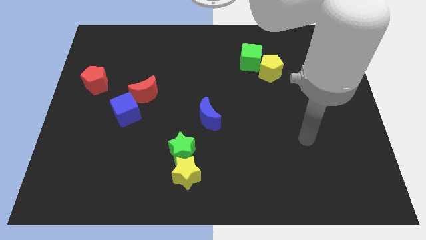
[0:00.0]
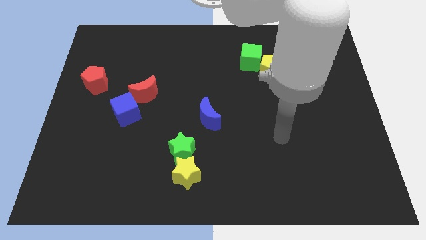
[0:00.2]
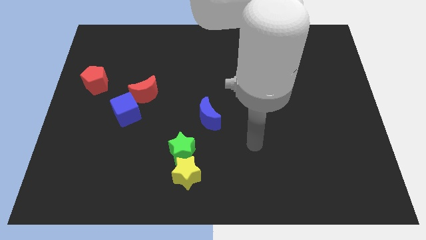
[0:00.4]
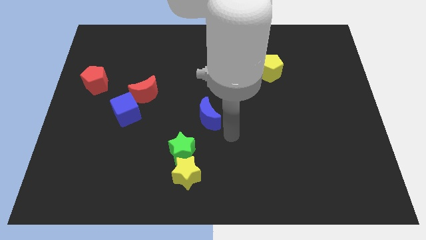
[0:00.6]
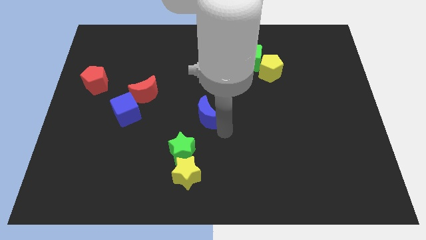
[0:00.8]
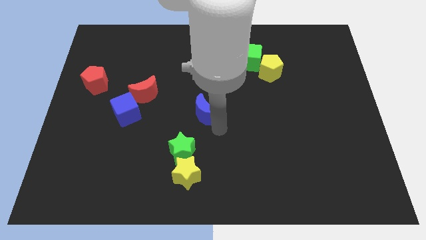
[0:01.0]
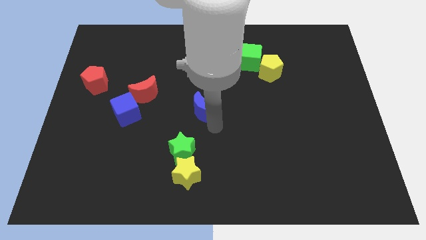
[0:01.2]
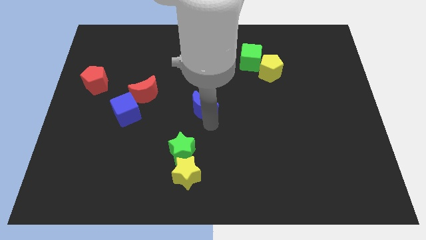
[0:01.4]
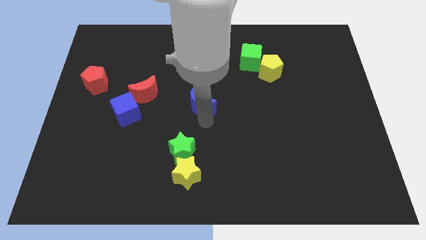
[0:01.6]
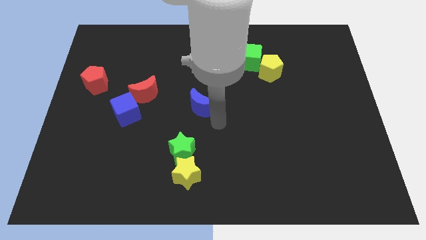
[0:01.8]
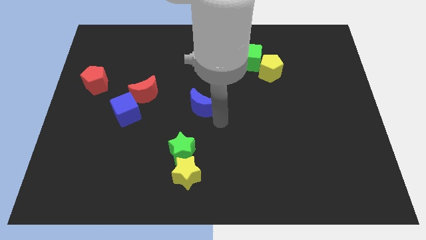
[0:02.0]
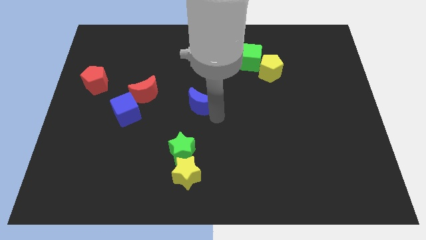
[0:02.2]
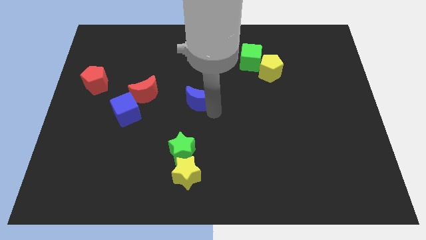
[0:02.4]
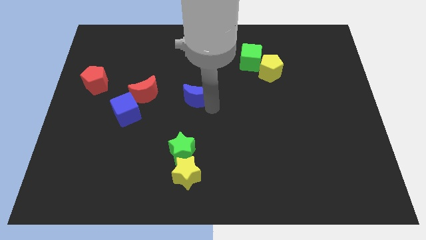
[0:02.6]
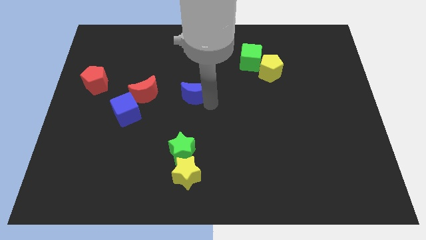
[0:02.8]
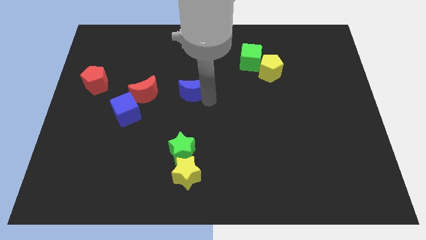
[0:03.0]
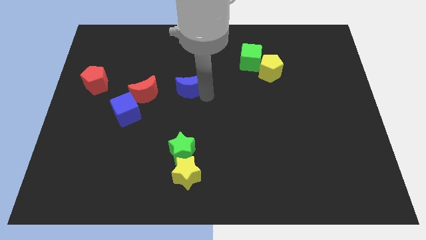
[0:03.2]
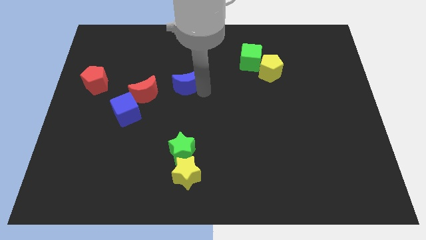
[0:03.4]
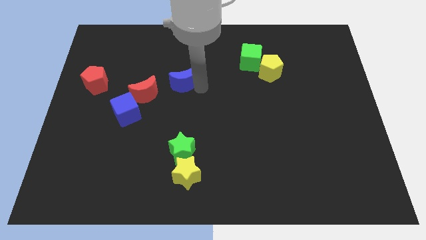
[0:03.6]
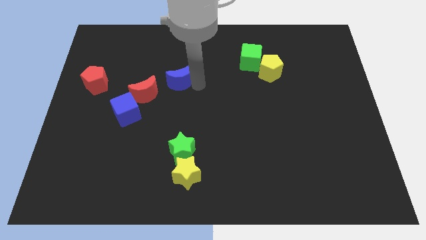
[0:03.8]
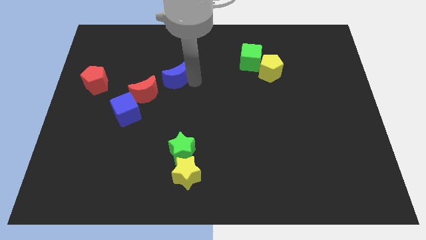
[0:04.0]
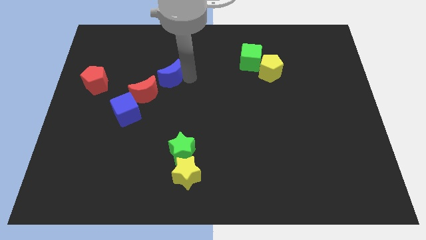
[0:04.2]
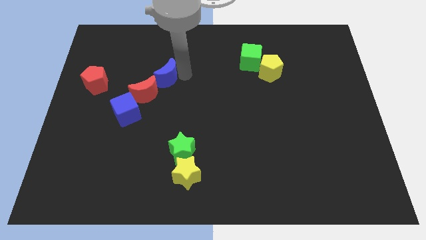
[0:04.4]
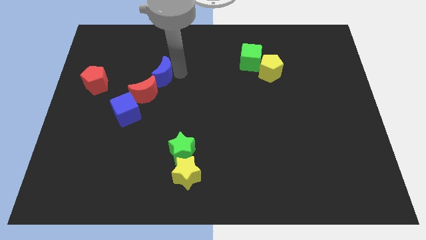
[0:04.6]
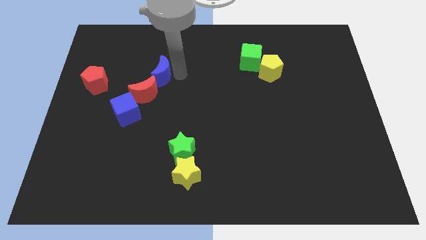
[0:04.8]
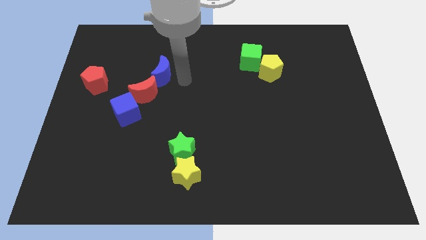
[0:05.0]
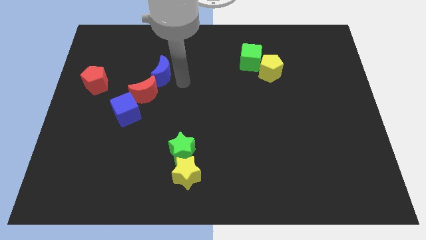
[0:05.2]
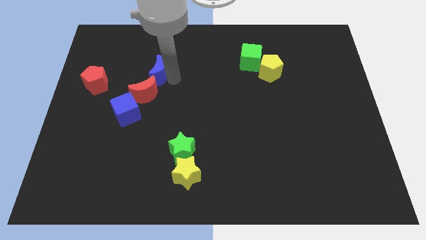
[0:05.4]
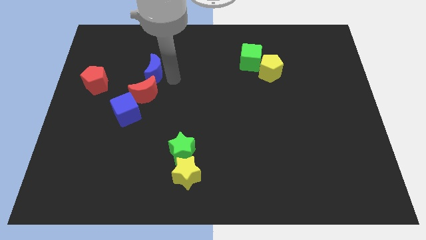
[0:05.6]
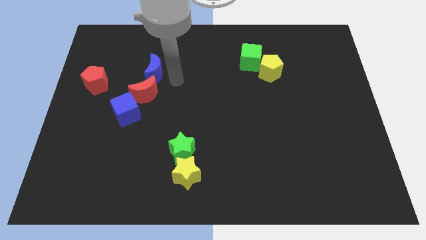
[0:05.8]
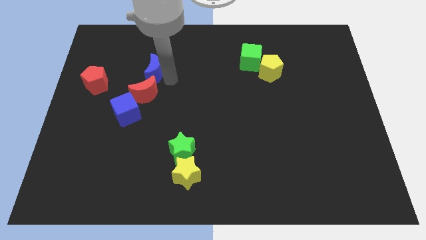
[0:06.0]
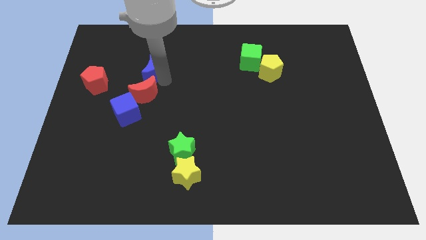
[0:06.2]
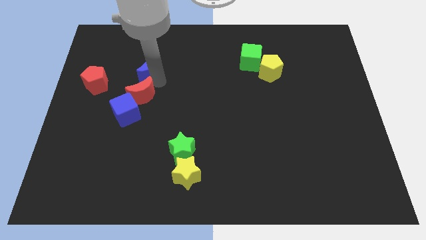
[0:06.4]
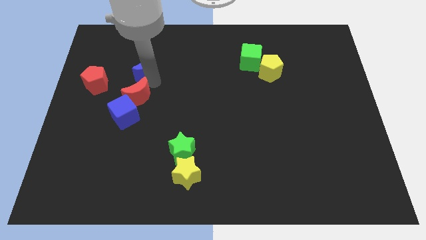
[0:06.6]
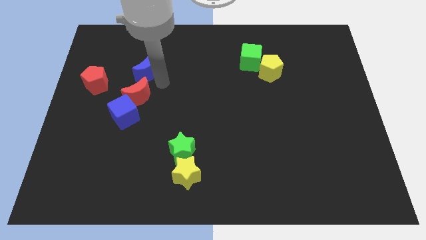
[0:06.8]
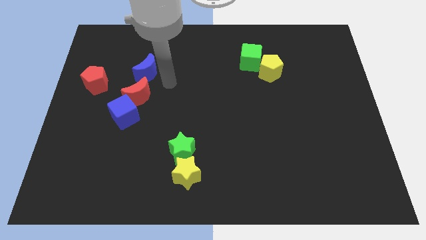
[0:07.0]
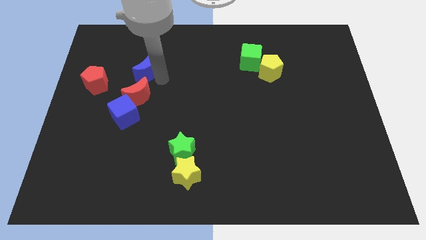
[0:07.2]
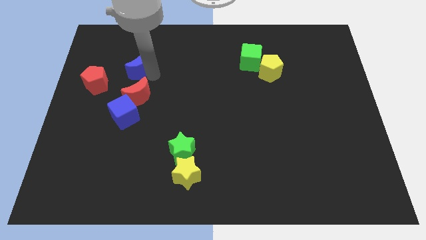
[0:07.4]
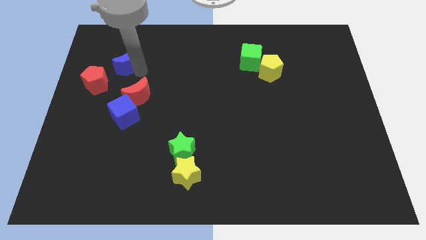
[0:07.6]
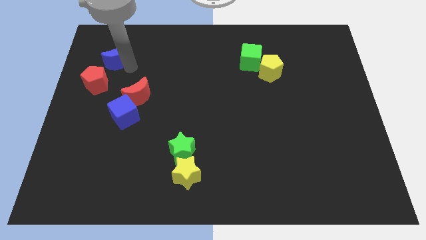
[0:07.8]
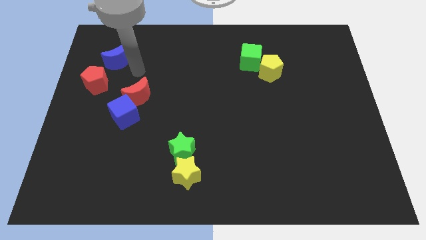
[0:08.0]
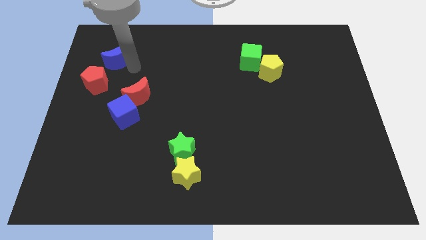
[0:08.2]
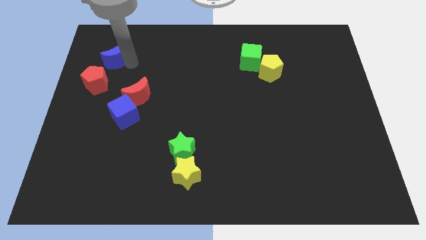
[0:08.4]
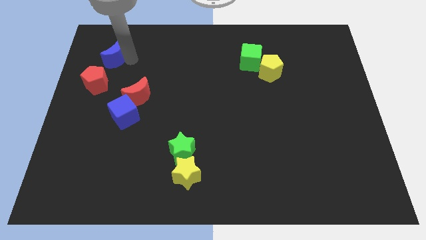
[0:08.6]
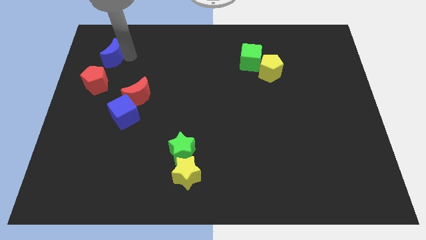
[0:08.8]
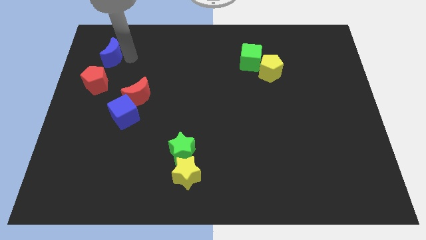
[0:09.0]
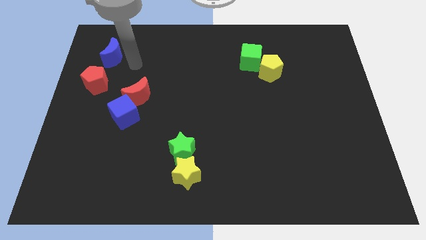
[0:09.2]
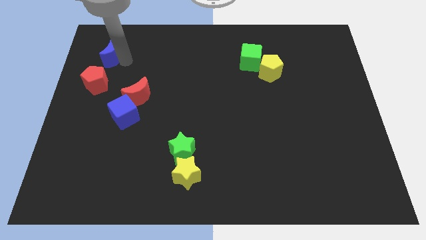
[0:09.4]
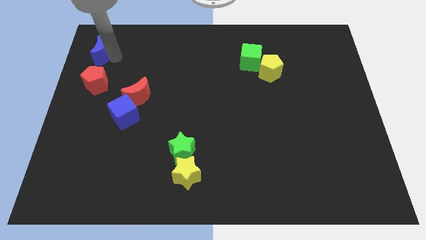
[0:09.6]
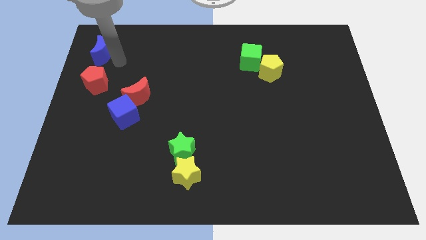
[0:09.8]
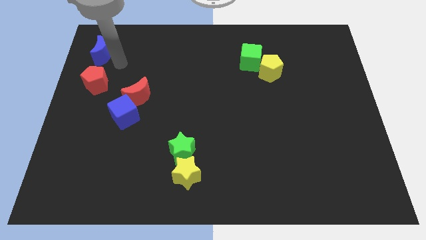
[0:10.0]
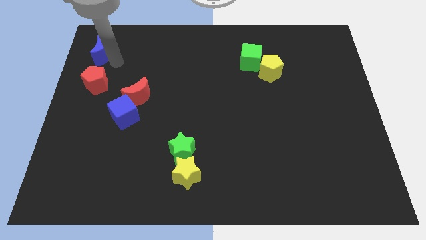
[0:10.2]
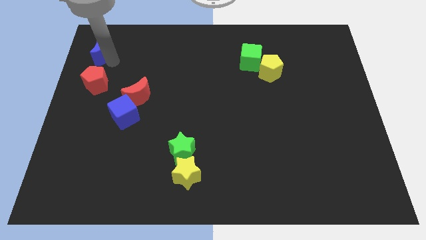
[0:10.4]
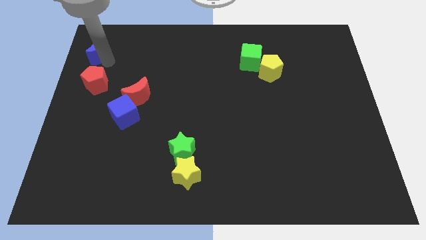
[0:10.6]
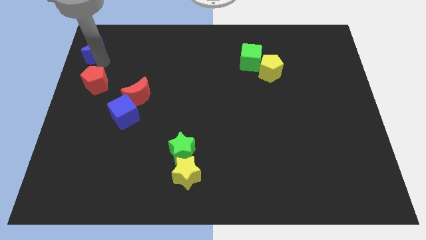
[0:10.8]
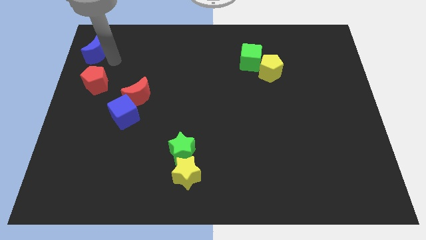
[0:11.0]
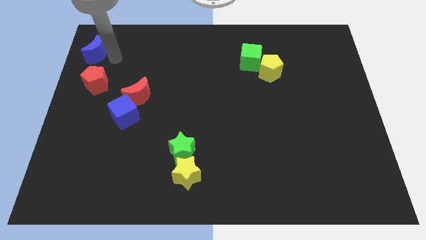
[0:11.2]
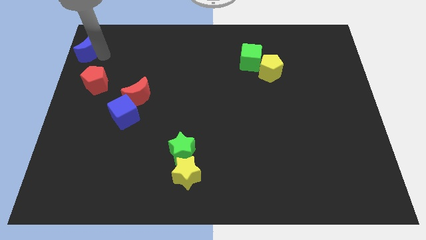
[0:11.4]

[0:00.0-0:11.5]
slide the blue moon to the upper left corner

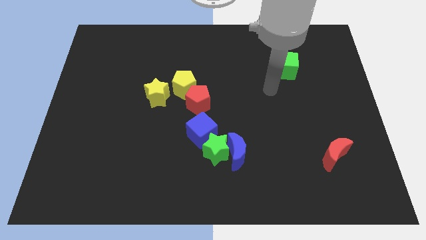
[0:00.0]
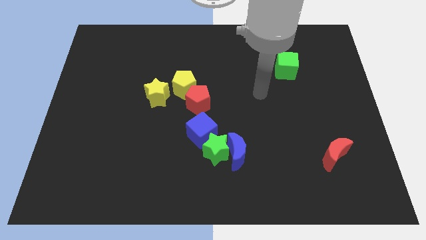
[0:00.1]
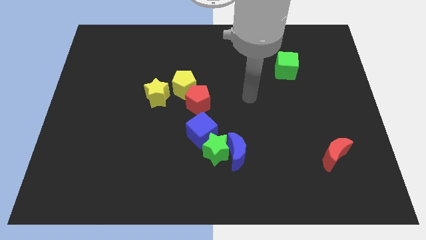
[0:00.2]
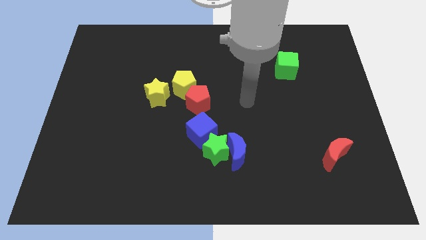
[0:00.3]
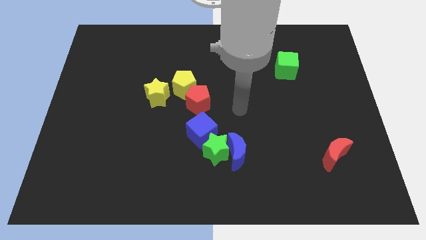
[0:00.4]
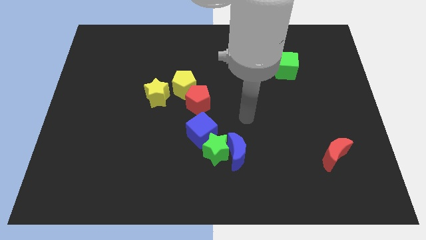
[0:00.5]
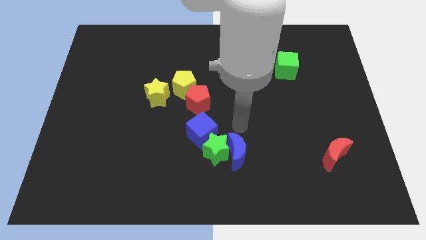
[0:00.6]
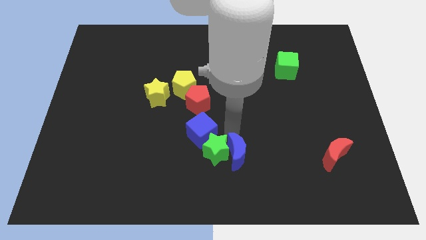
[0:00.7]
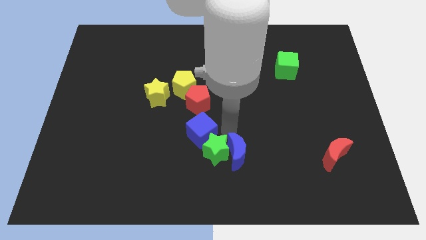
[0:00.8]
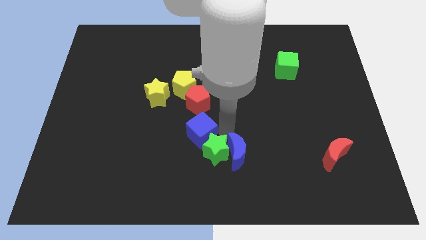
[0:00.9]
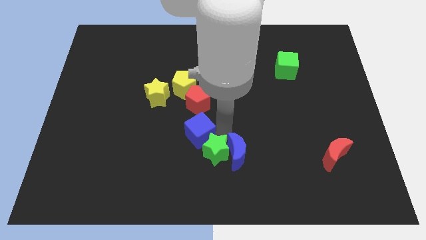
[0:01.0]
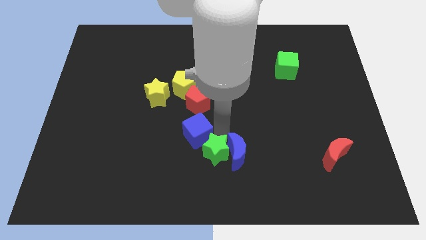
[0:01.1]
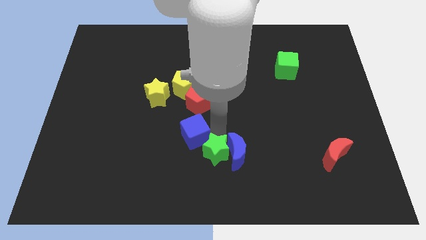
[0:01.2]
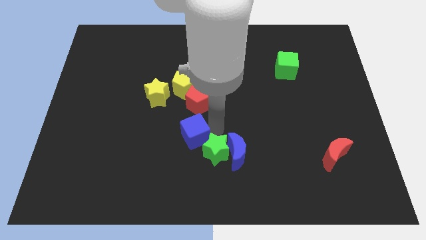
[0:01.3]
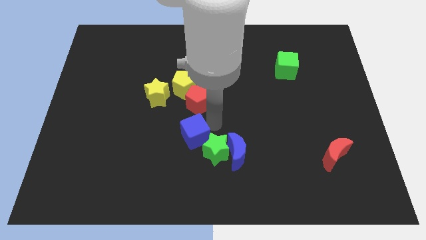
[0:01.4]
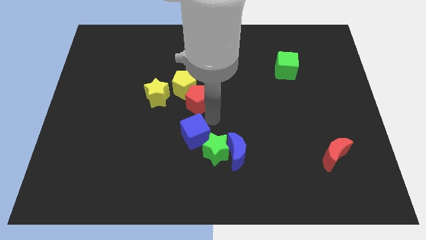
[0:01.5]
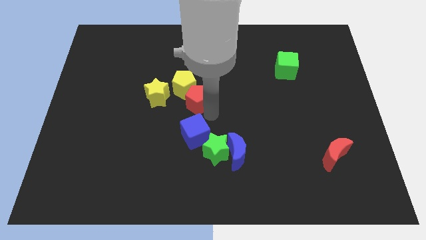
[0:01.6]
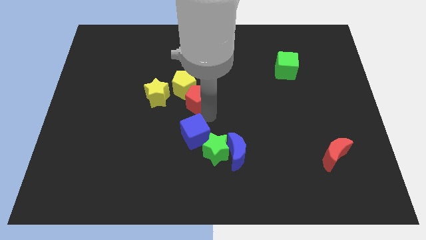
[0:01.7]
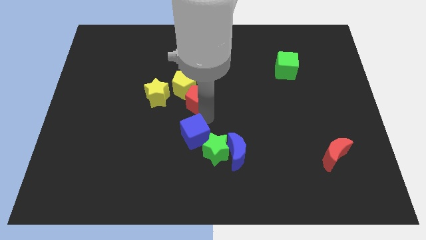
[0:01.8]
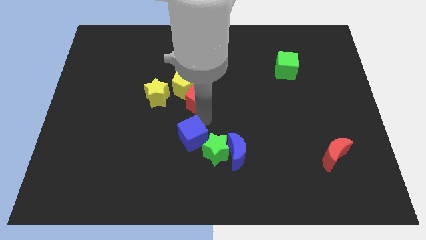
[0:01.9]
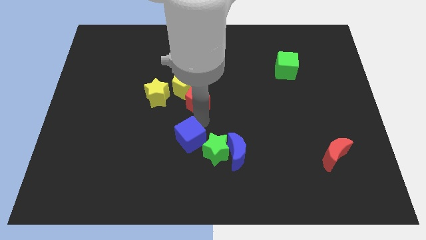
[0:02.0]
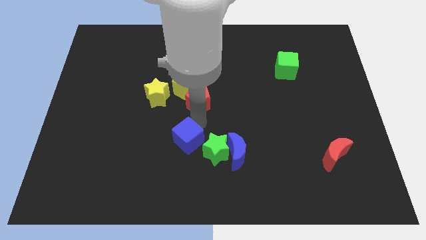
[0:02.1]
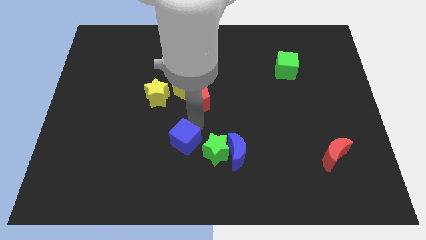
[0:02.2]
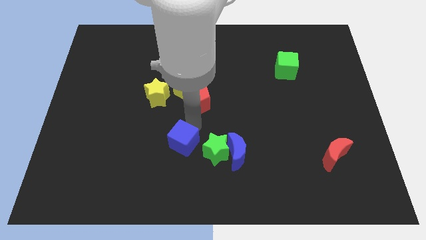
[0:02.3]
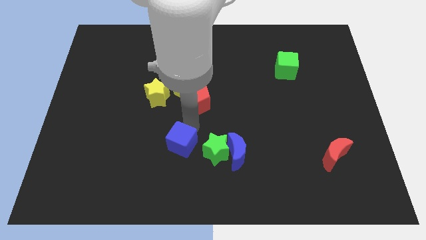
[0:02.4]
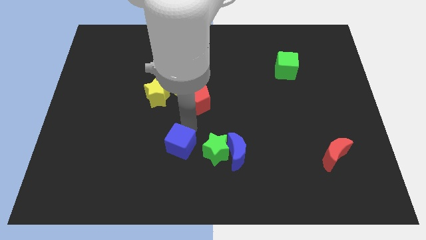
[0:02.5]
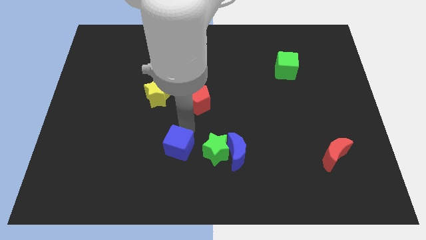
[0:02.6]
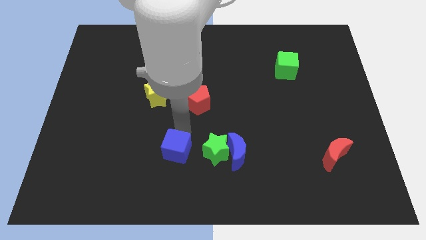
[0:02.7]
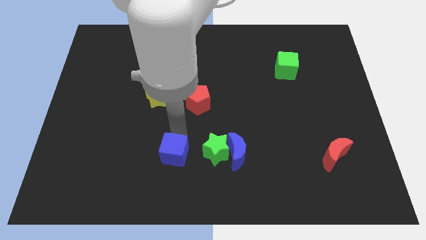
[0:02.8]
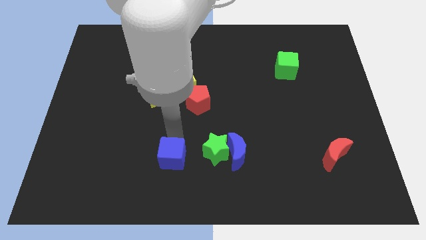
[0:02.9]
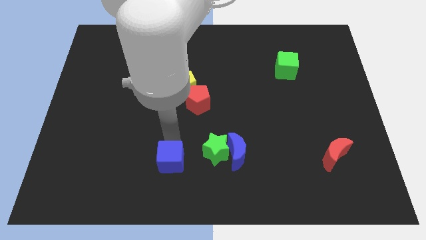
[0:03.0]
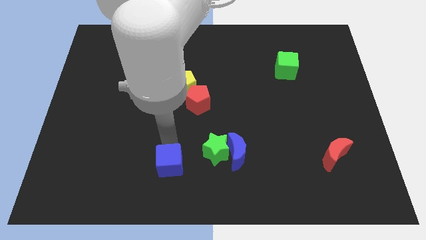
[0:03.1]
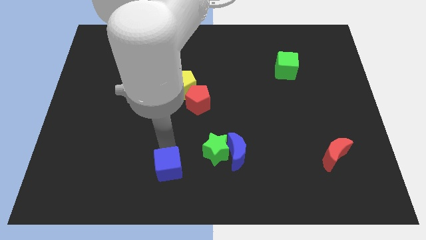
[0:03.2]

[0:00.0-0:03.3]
put the blue cube to the bottom side
